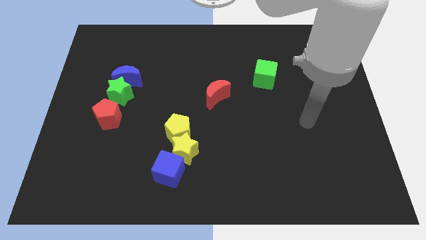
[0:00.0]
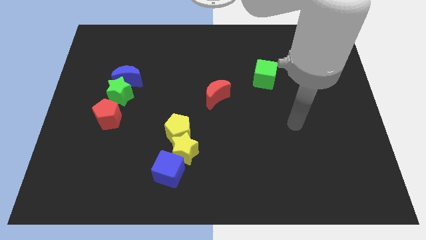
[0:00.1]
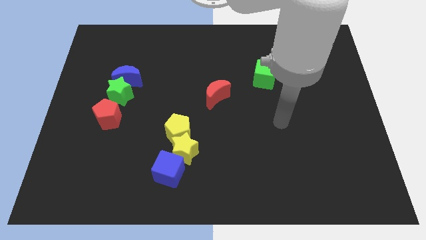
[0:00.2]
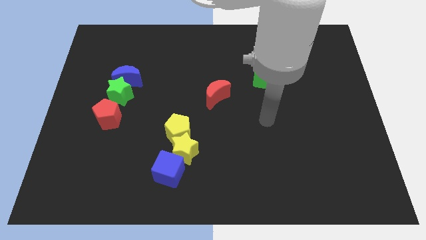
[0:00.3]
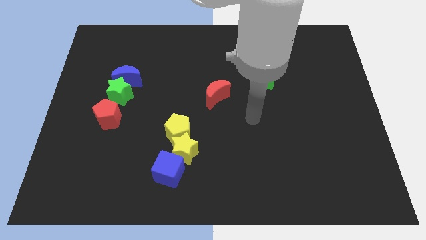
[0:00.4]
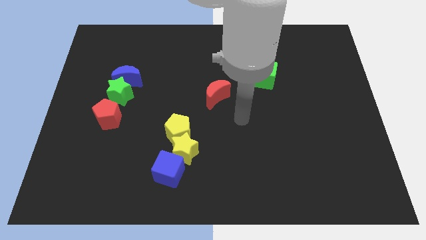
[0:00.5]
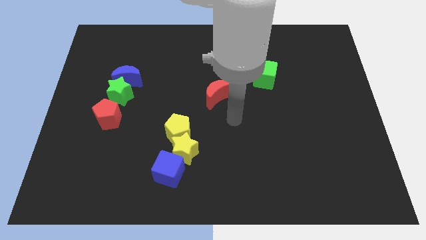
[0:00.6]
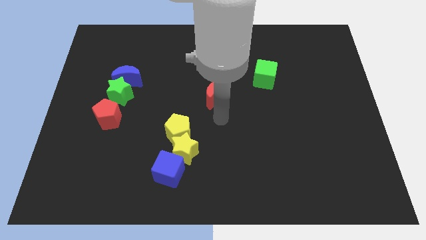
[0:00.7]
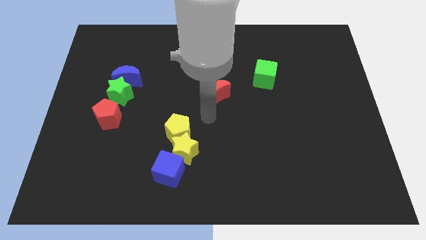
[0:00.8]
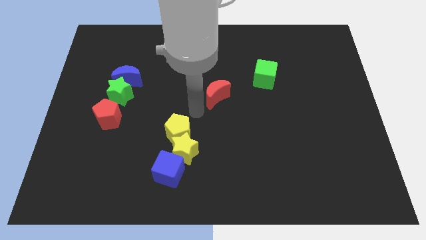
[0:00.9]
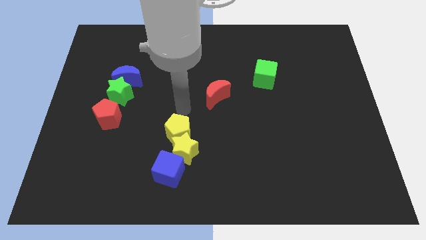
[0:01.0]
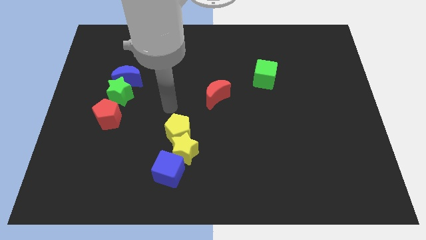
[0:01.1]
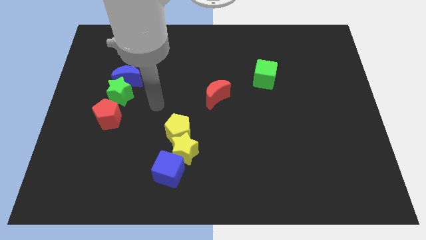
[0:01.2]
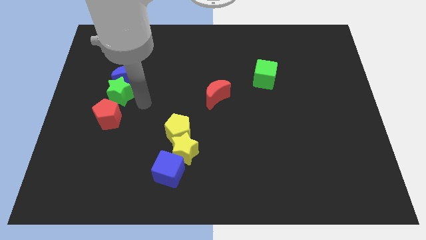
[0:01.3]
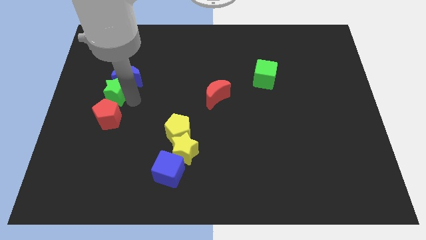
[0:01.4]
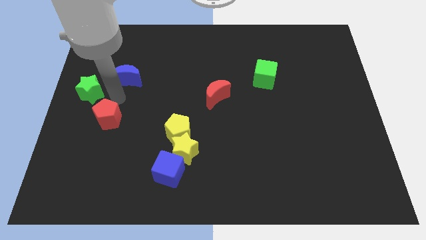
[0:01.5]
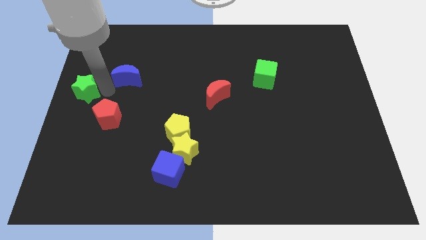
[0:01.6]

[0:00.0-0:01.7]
move the blue moon away from the green star

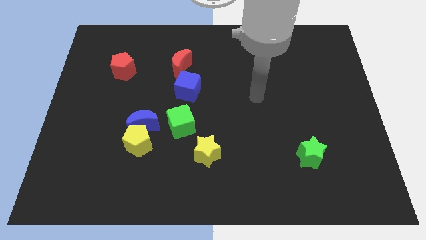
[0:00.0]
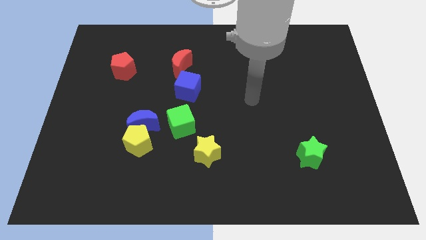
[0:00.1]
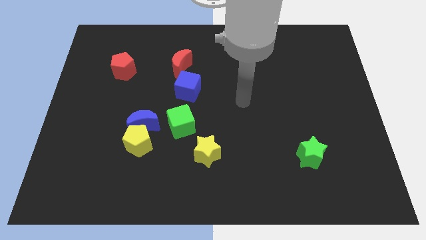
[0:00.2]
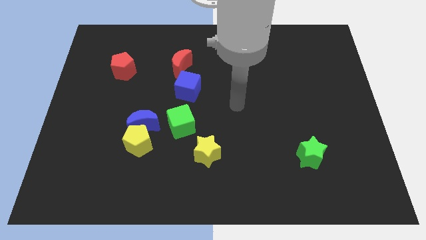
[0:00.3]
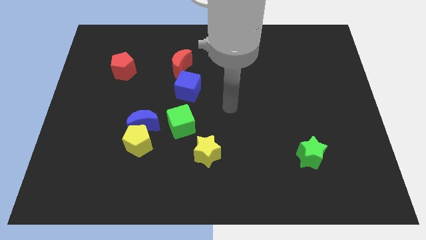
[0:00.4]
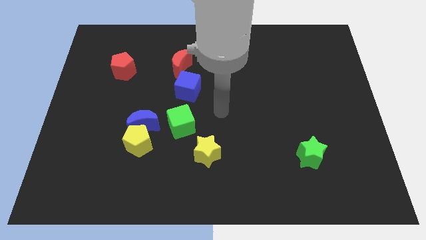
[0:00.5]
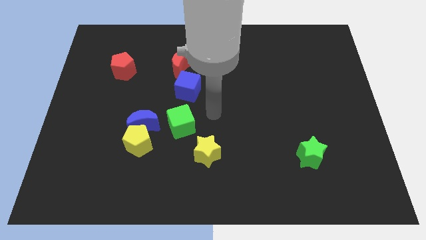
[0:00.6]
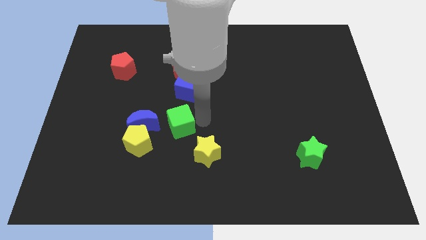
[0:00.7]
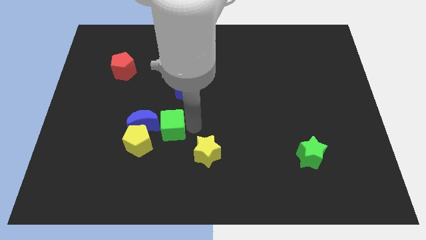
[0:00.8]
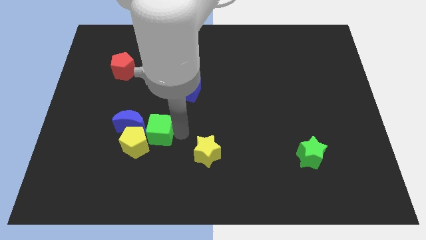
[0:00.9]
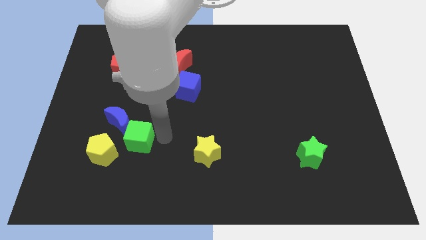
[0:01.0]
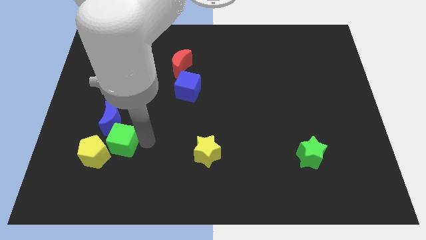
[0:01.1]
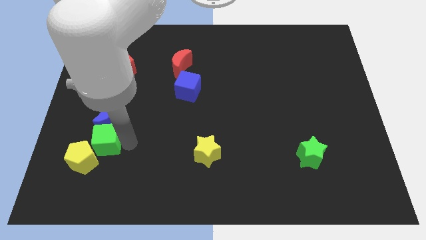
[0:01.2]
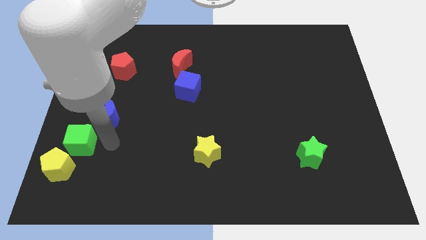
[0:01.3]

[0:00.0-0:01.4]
move the blue moon away from the yellow pentagon and green cube

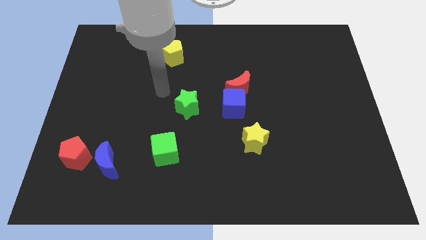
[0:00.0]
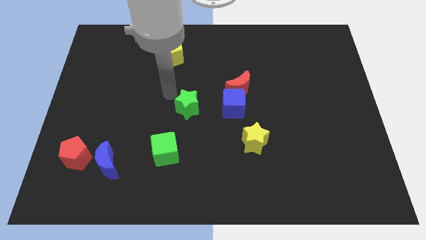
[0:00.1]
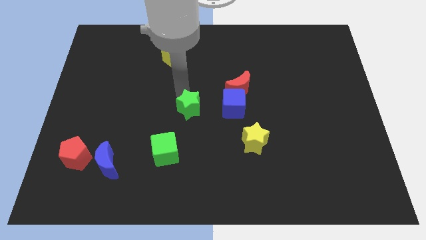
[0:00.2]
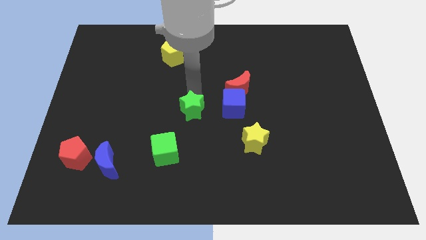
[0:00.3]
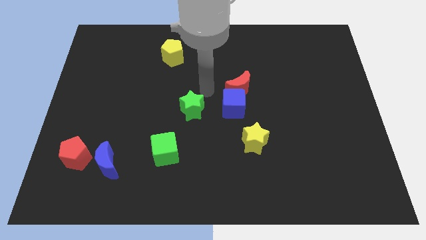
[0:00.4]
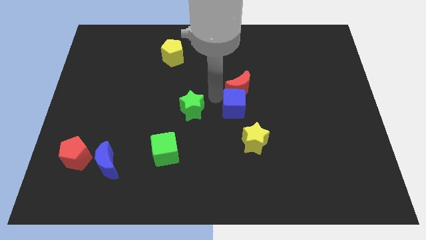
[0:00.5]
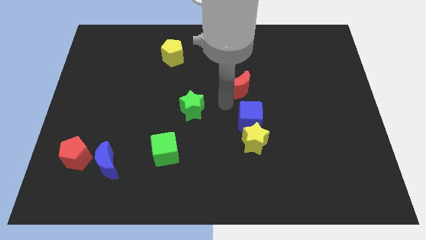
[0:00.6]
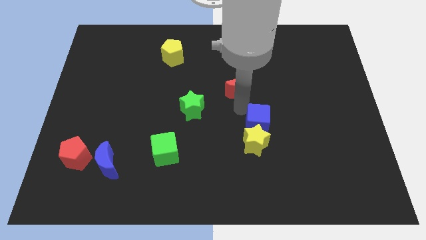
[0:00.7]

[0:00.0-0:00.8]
pull the red moon apart from the blue cube

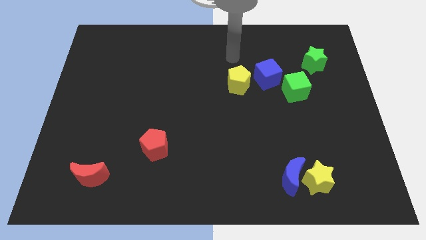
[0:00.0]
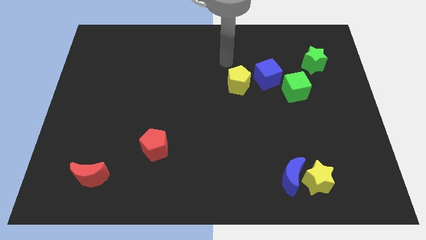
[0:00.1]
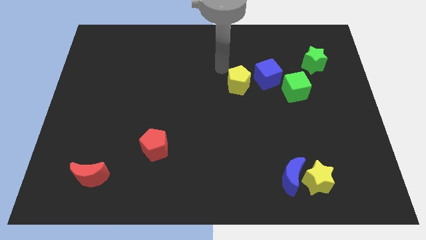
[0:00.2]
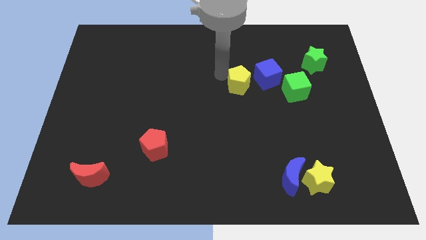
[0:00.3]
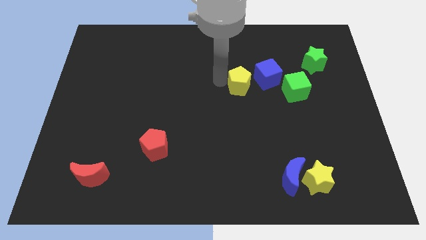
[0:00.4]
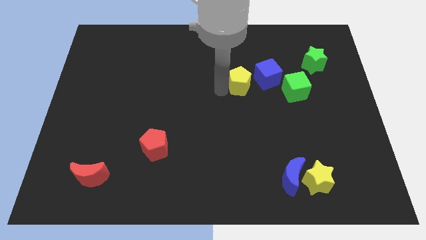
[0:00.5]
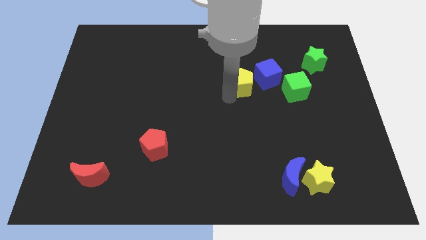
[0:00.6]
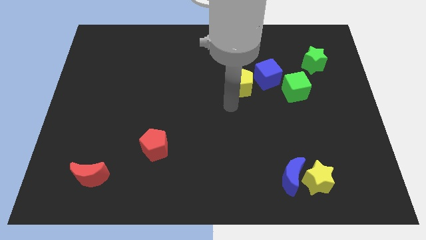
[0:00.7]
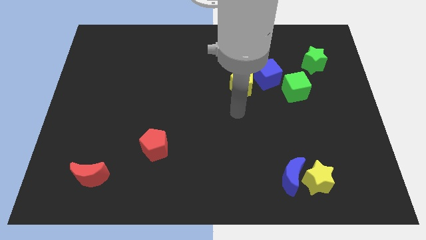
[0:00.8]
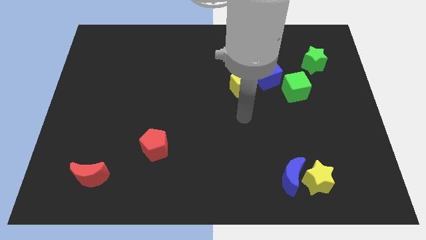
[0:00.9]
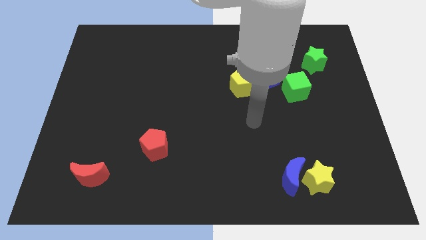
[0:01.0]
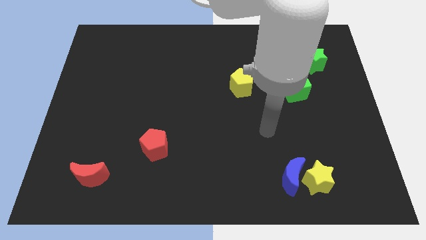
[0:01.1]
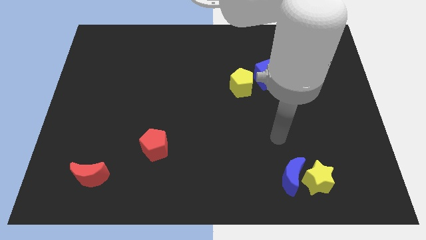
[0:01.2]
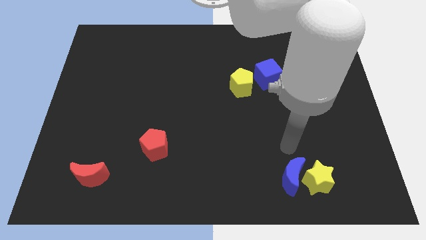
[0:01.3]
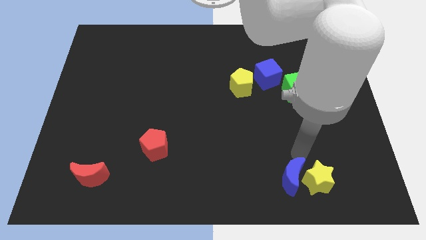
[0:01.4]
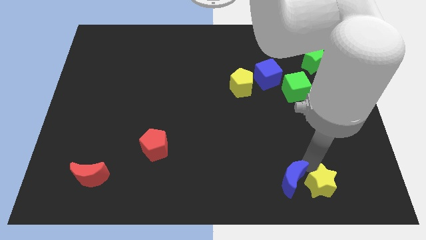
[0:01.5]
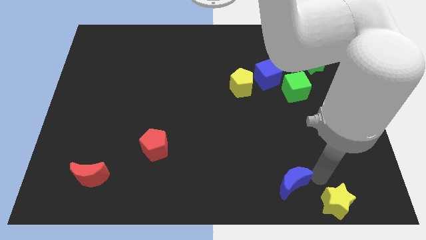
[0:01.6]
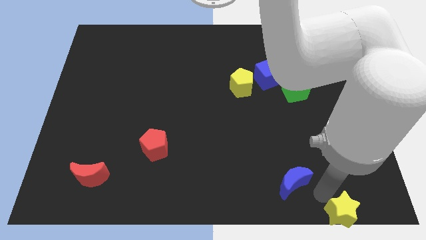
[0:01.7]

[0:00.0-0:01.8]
separate the blue moon from the yellow star

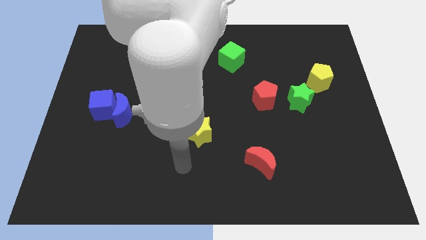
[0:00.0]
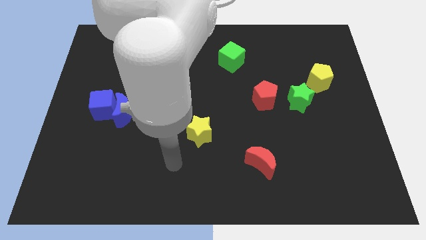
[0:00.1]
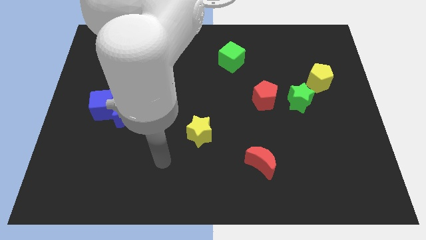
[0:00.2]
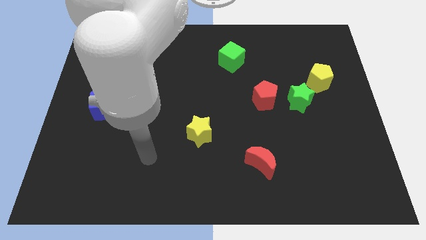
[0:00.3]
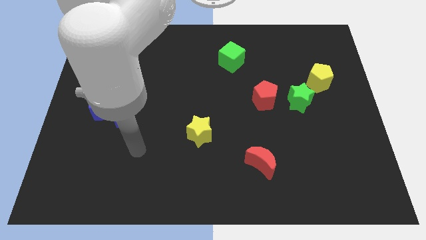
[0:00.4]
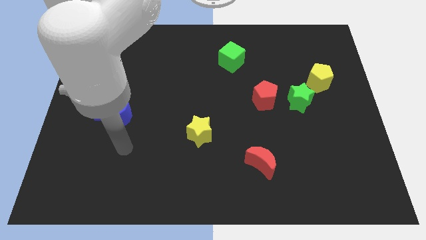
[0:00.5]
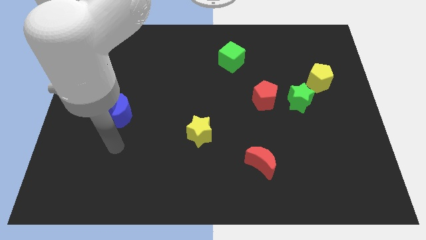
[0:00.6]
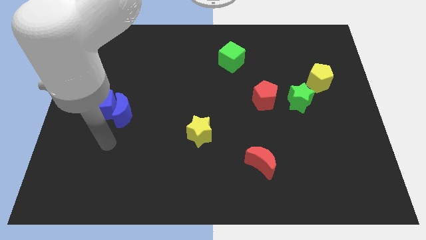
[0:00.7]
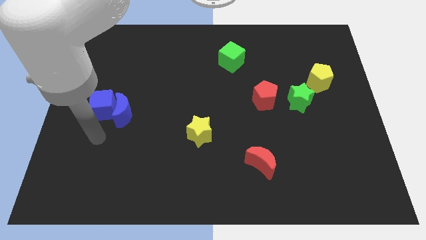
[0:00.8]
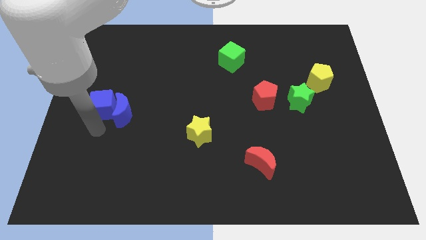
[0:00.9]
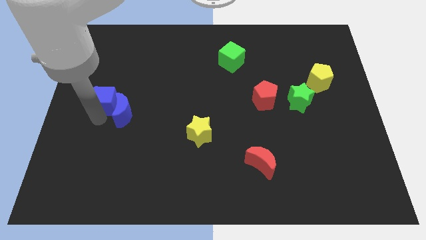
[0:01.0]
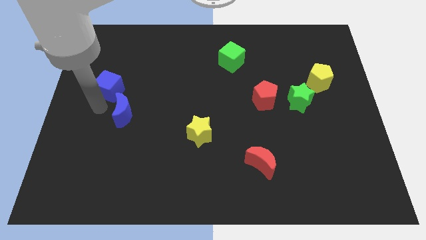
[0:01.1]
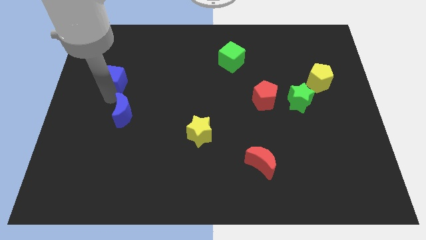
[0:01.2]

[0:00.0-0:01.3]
move the blue moon away from the blue cube

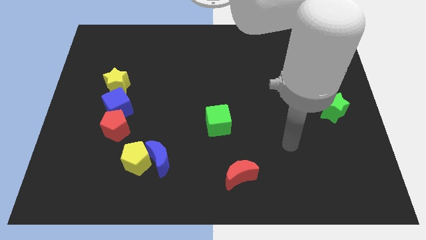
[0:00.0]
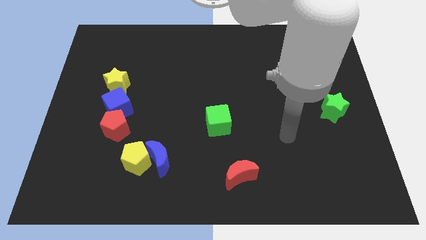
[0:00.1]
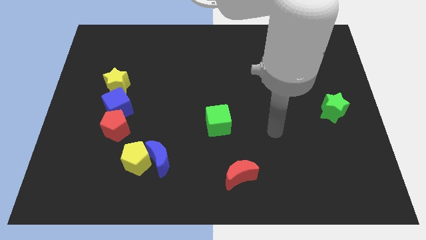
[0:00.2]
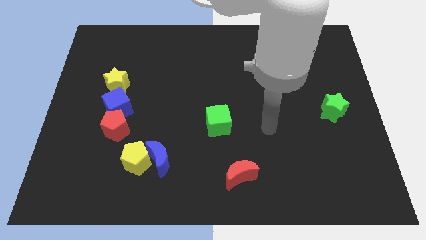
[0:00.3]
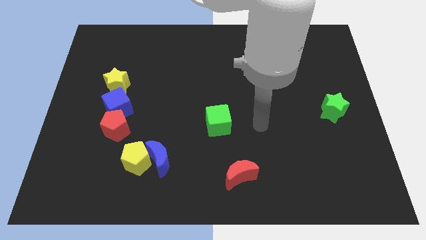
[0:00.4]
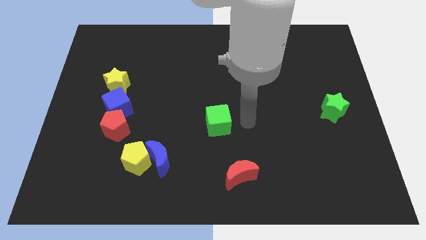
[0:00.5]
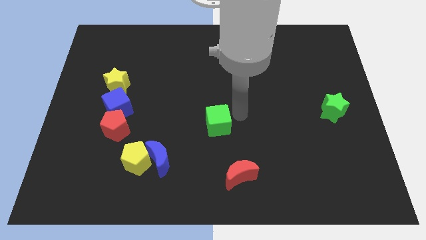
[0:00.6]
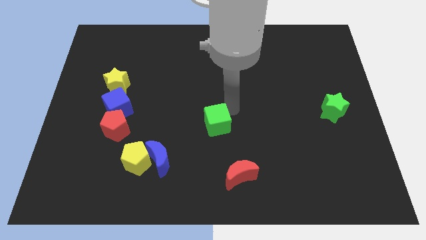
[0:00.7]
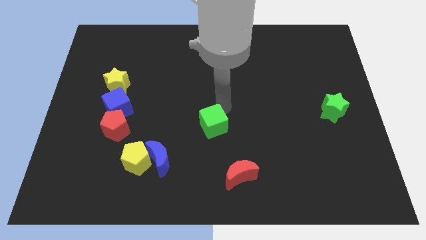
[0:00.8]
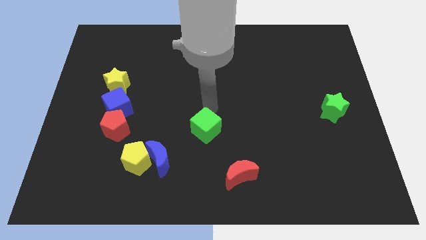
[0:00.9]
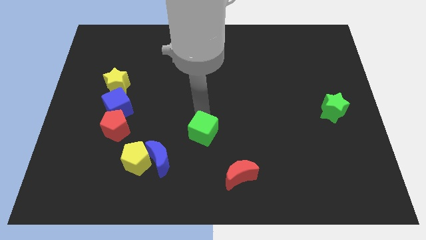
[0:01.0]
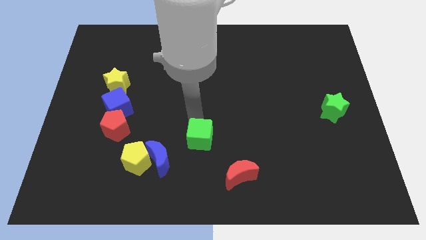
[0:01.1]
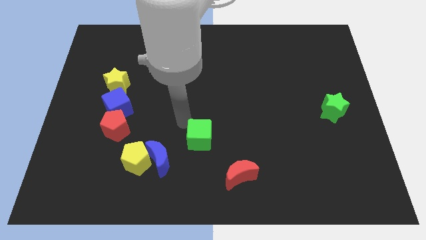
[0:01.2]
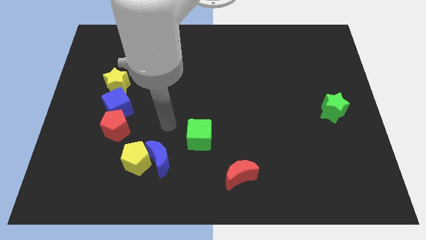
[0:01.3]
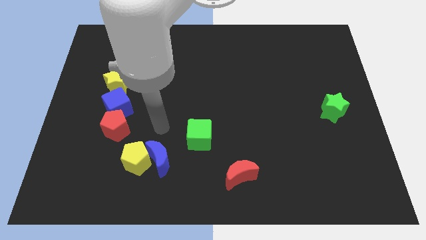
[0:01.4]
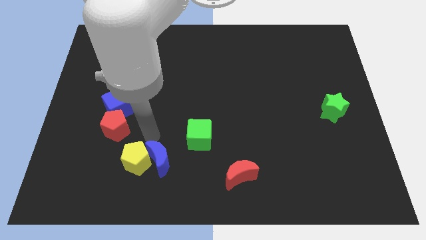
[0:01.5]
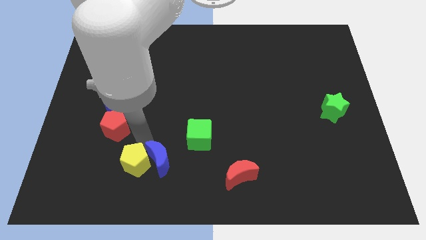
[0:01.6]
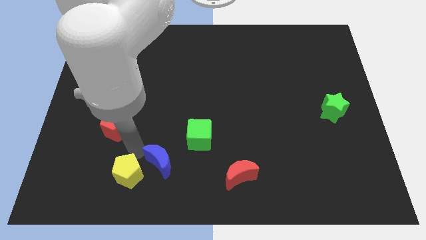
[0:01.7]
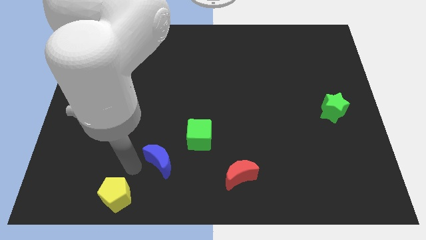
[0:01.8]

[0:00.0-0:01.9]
pull the blue moon apart from the yellow pentagon

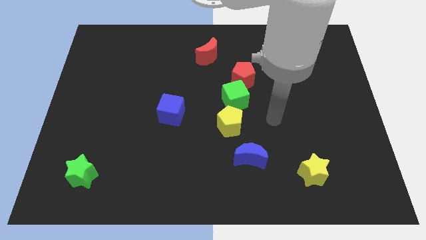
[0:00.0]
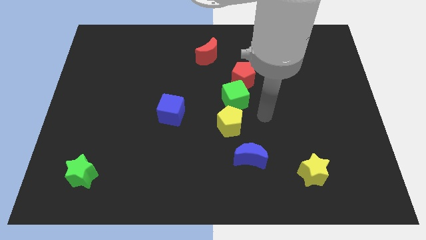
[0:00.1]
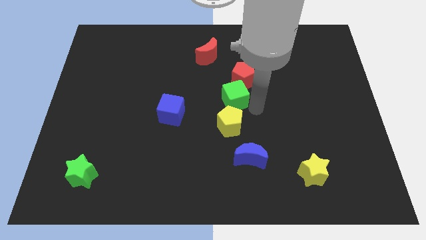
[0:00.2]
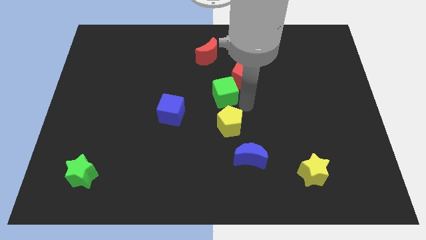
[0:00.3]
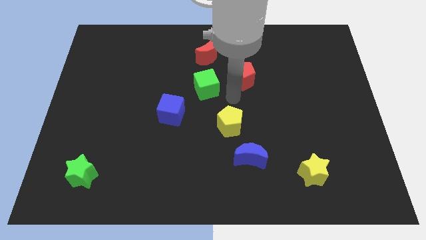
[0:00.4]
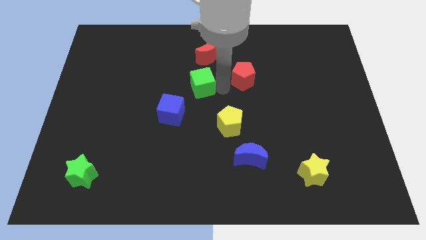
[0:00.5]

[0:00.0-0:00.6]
separate the red pentagon from the green cube
